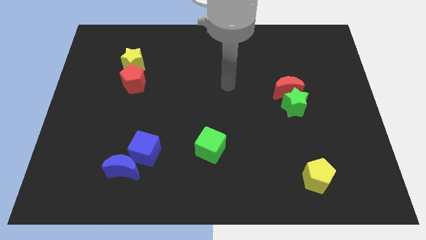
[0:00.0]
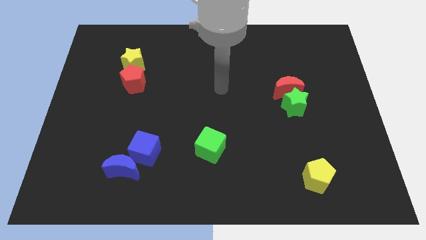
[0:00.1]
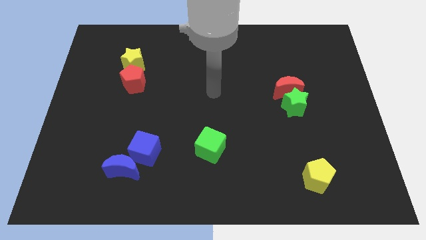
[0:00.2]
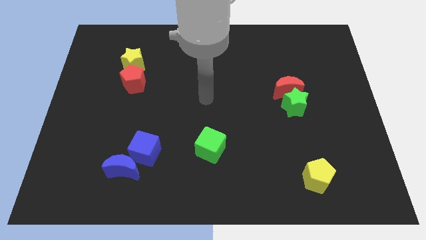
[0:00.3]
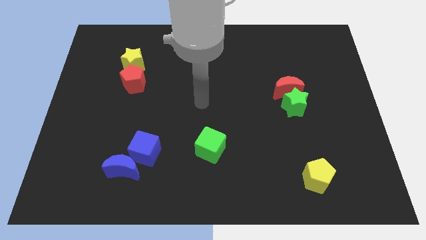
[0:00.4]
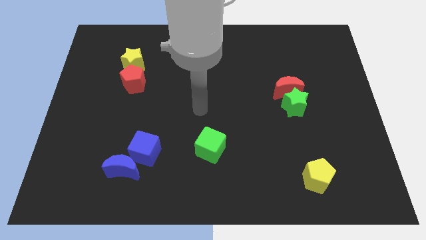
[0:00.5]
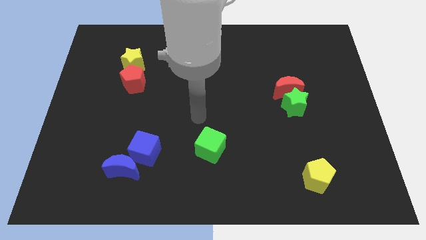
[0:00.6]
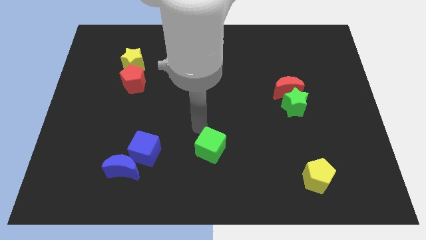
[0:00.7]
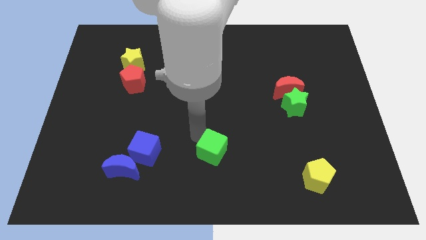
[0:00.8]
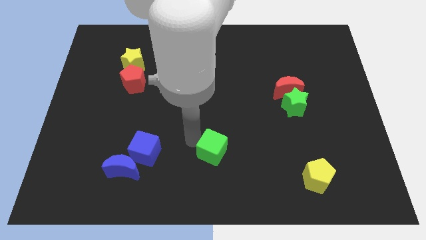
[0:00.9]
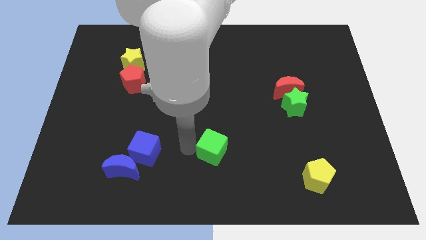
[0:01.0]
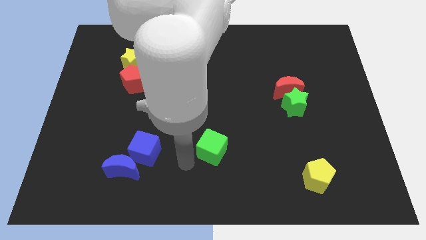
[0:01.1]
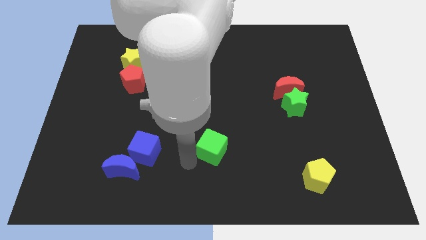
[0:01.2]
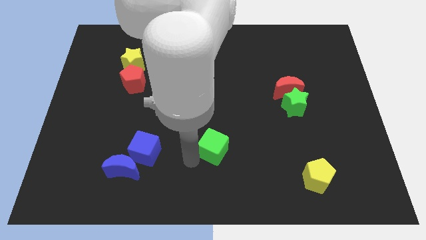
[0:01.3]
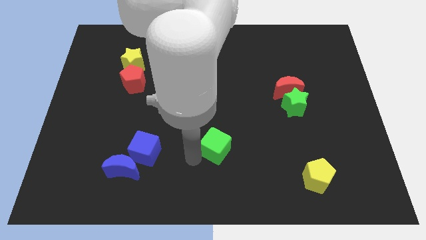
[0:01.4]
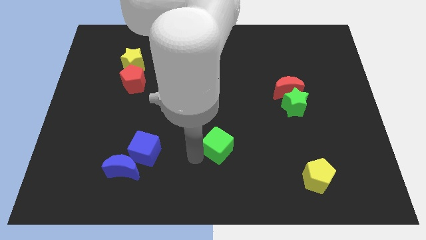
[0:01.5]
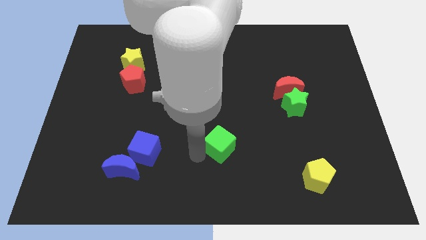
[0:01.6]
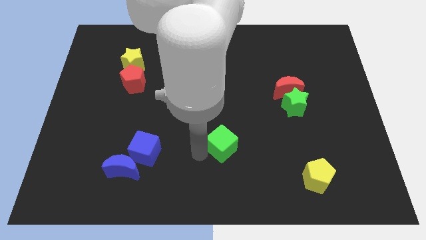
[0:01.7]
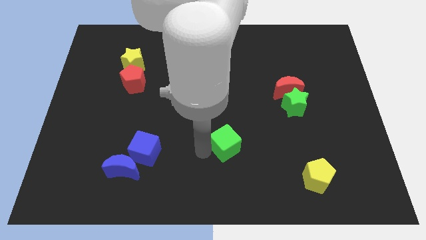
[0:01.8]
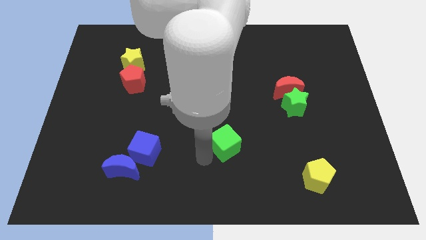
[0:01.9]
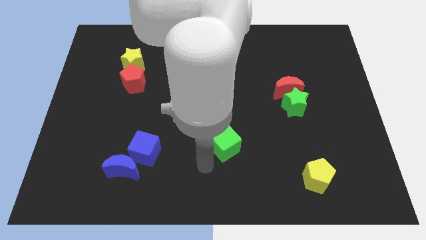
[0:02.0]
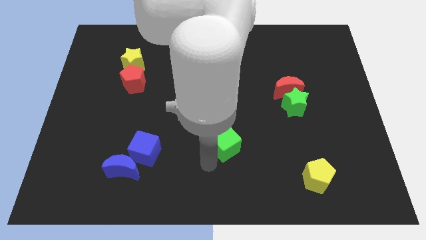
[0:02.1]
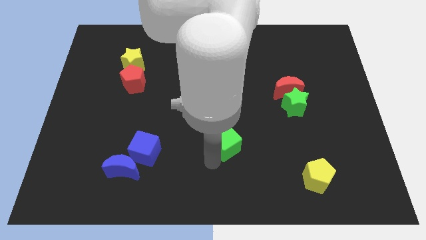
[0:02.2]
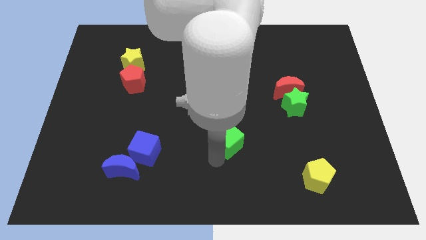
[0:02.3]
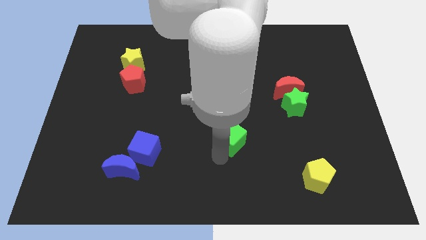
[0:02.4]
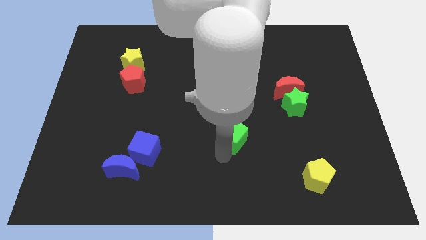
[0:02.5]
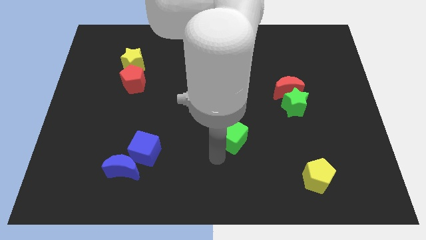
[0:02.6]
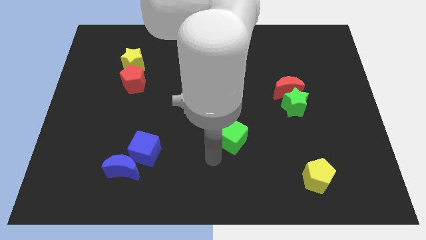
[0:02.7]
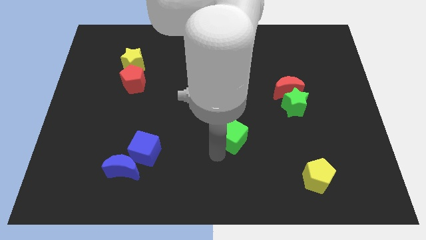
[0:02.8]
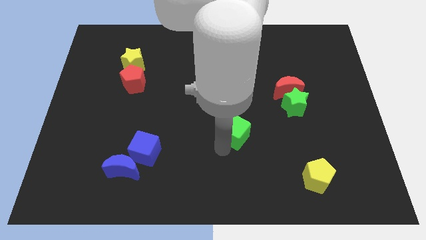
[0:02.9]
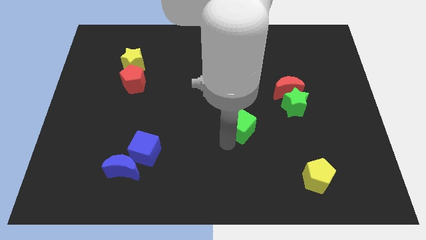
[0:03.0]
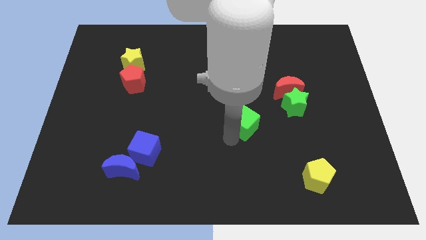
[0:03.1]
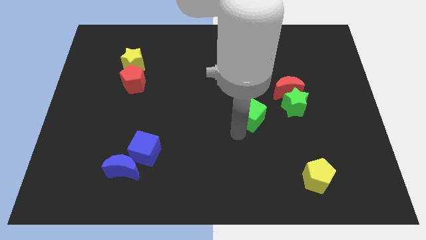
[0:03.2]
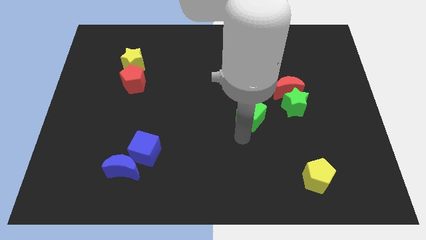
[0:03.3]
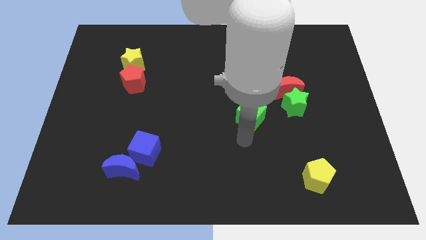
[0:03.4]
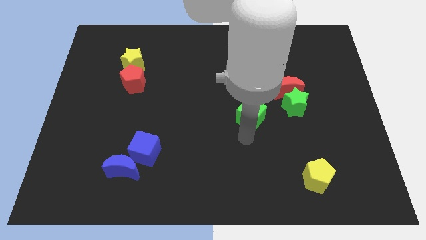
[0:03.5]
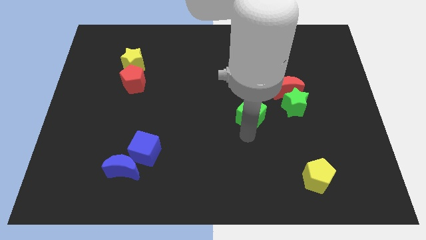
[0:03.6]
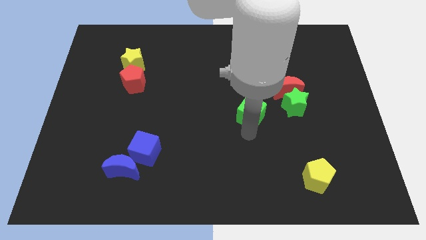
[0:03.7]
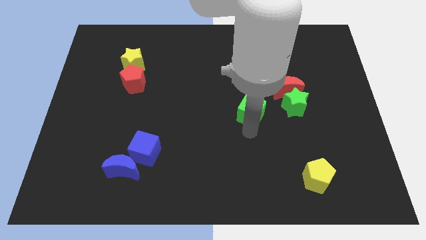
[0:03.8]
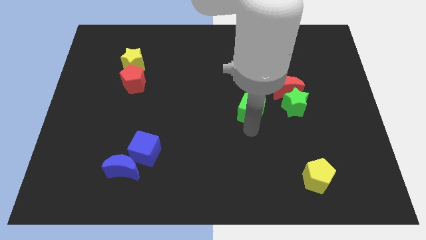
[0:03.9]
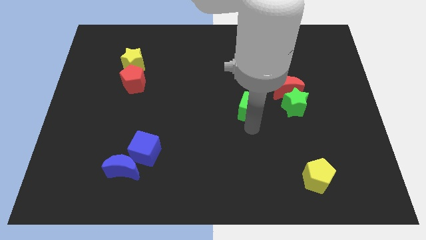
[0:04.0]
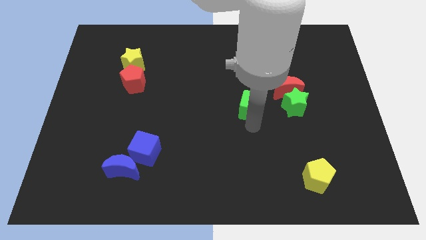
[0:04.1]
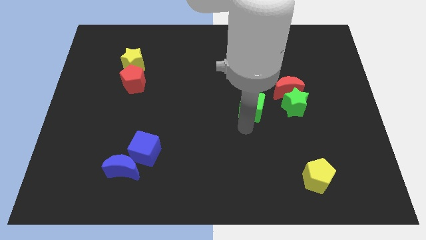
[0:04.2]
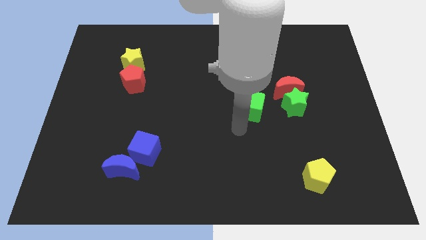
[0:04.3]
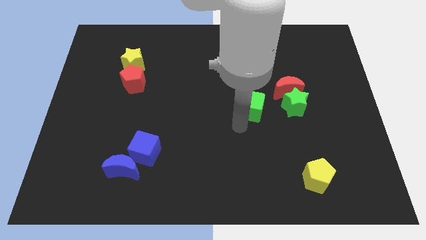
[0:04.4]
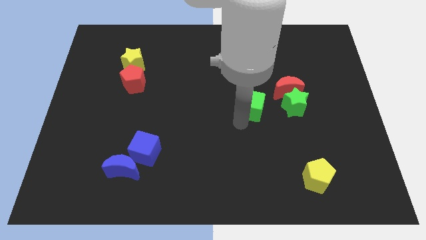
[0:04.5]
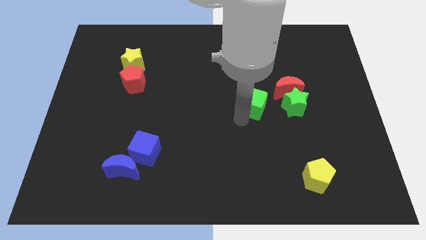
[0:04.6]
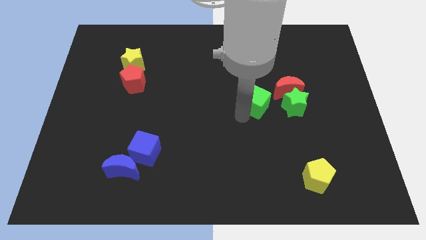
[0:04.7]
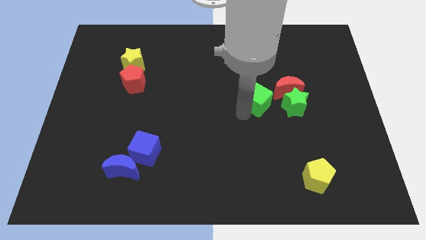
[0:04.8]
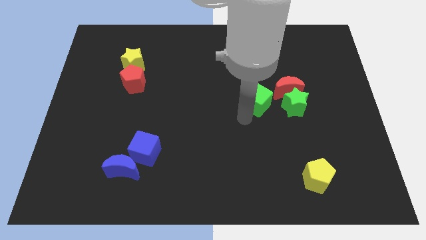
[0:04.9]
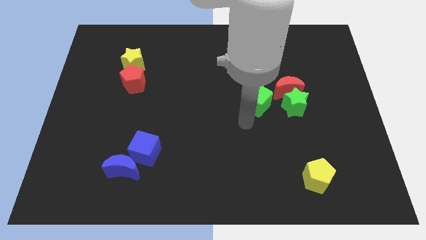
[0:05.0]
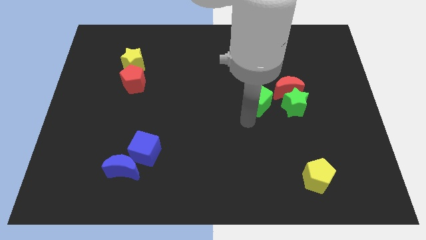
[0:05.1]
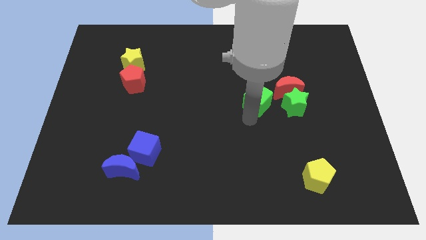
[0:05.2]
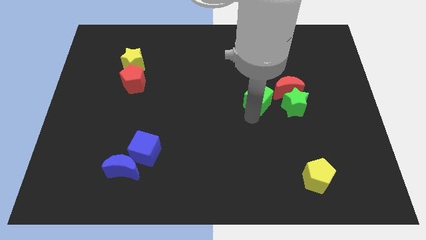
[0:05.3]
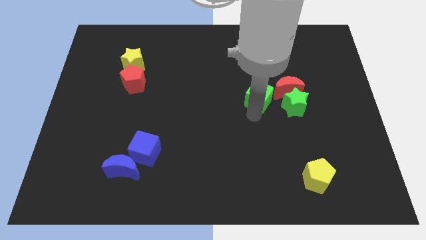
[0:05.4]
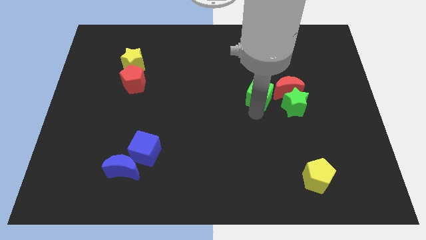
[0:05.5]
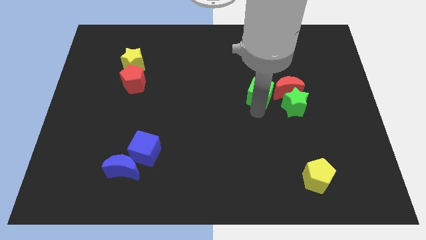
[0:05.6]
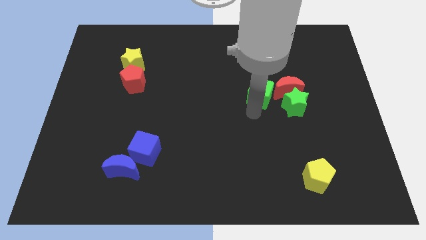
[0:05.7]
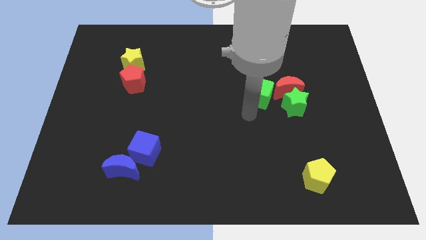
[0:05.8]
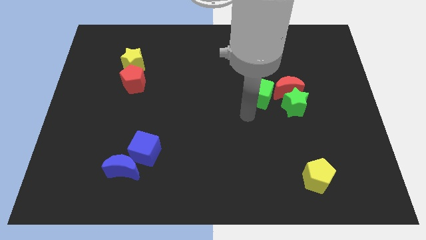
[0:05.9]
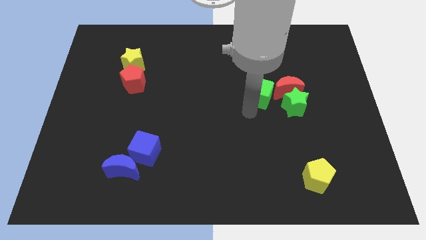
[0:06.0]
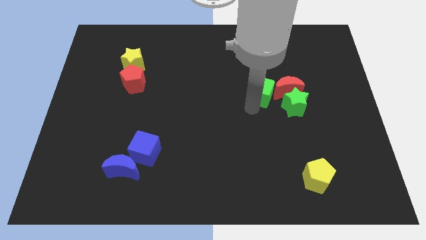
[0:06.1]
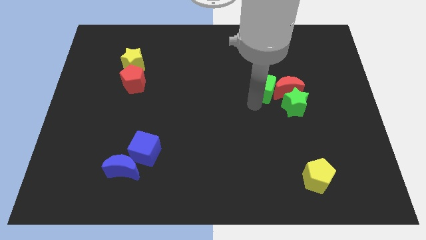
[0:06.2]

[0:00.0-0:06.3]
slide the green cube up and right diagonally

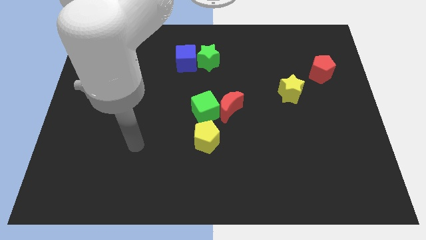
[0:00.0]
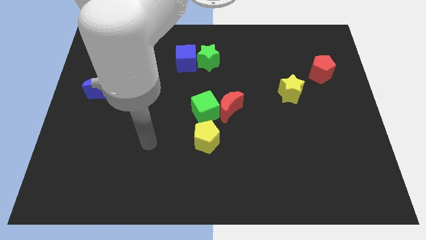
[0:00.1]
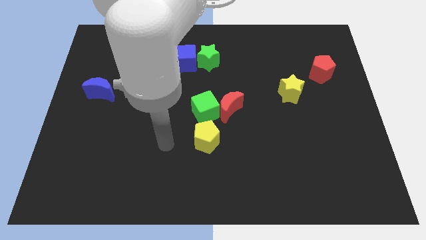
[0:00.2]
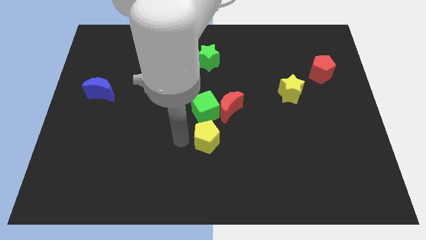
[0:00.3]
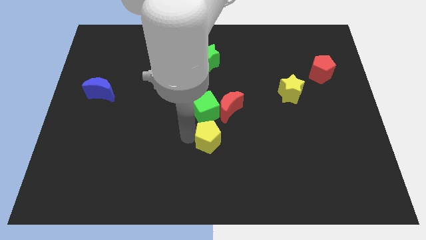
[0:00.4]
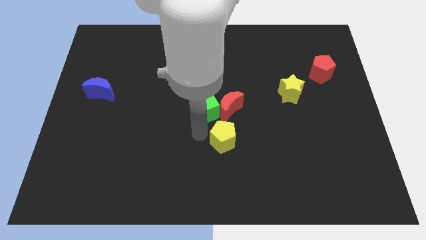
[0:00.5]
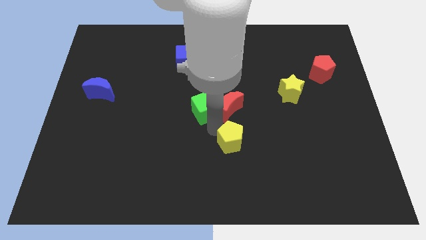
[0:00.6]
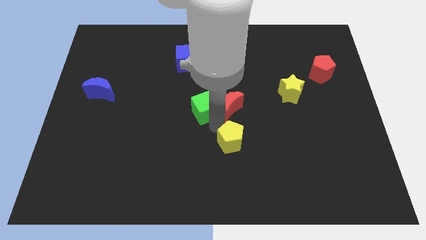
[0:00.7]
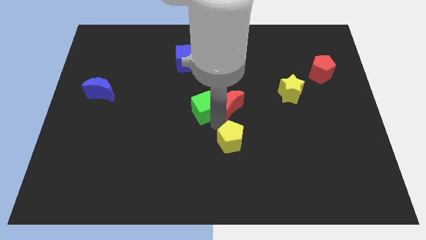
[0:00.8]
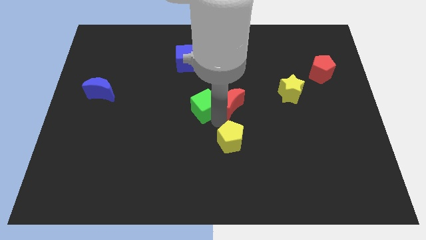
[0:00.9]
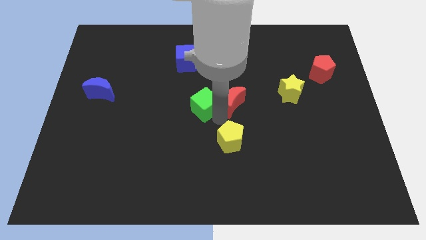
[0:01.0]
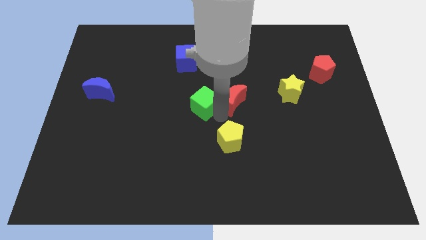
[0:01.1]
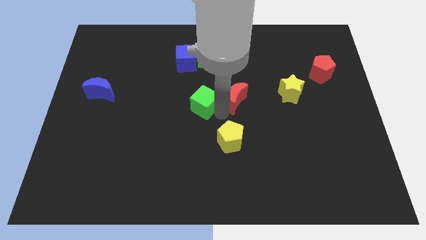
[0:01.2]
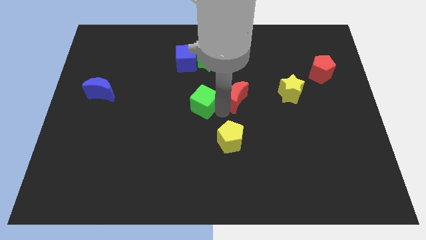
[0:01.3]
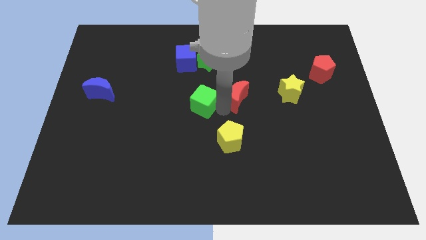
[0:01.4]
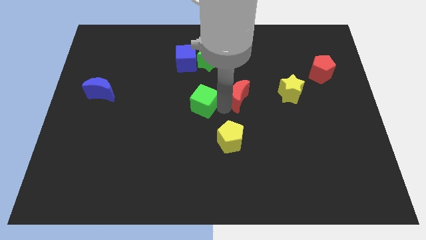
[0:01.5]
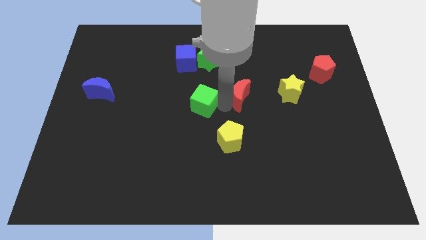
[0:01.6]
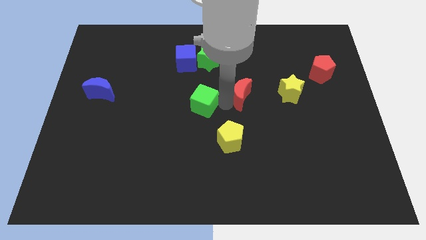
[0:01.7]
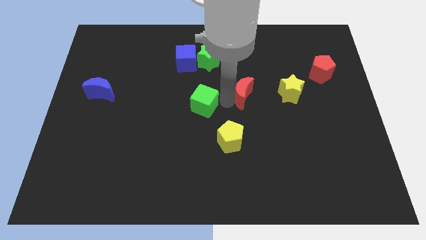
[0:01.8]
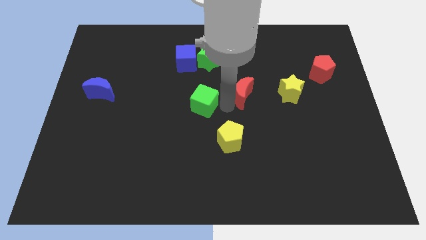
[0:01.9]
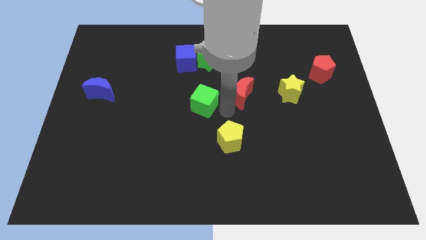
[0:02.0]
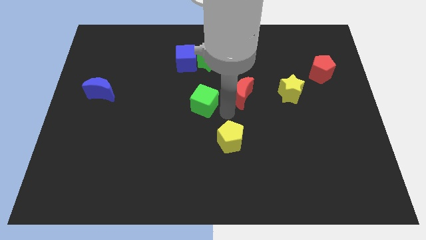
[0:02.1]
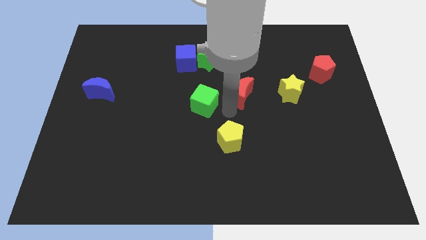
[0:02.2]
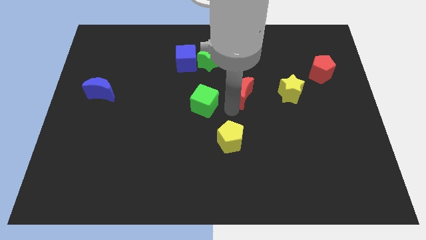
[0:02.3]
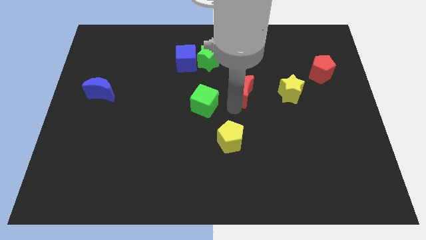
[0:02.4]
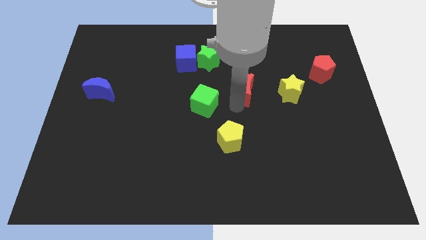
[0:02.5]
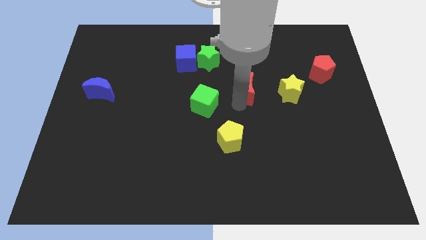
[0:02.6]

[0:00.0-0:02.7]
push the red moon upwards and to the right diagonally a little
